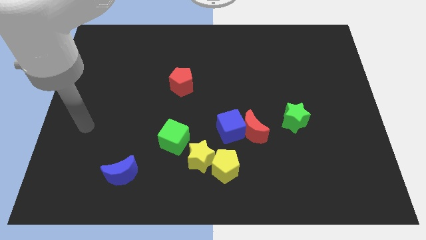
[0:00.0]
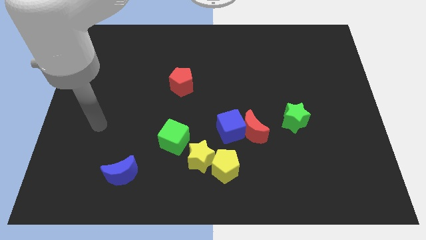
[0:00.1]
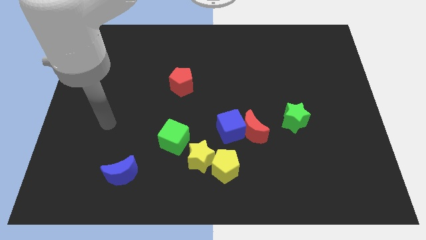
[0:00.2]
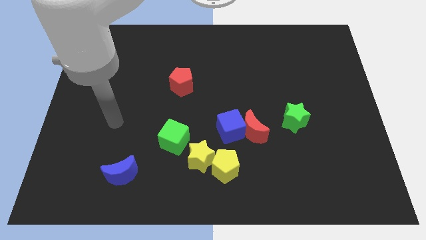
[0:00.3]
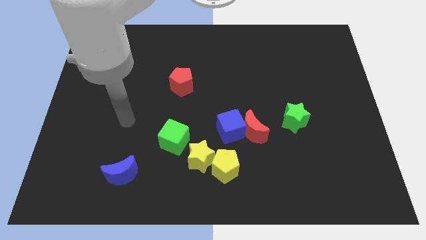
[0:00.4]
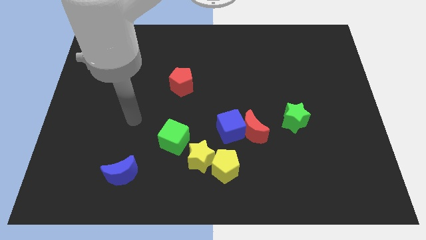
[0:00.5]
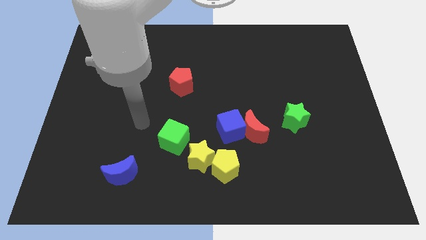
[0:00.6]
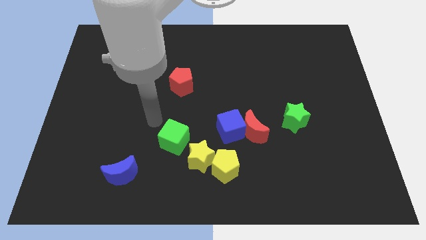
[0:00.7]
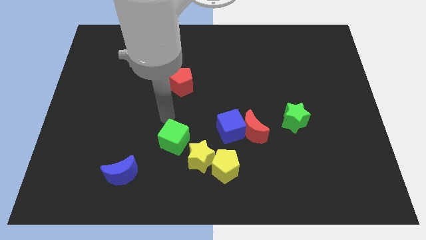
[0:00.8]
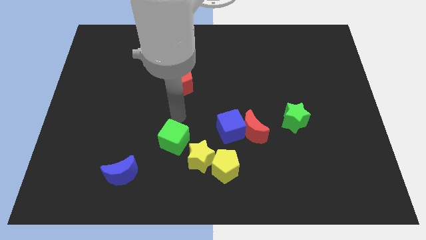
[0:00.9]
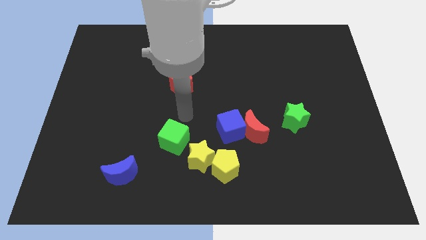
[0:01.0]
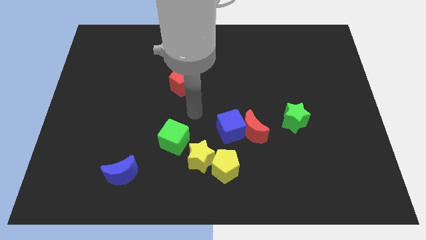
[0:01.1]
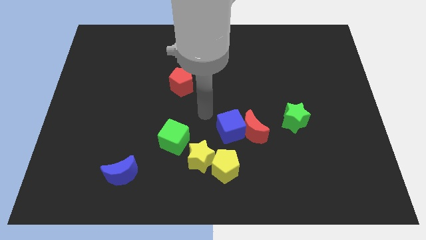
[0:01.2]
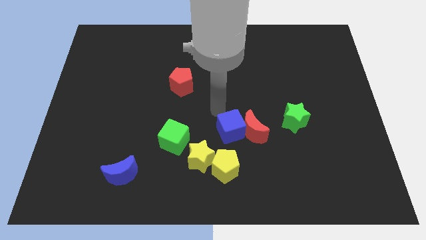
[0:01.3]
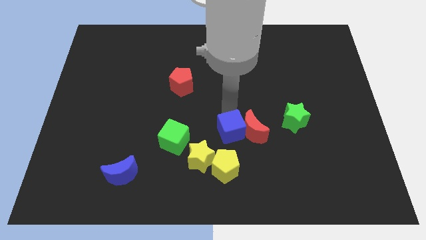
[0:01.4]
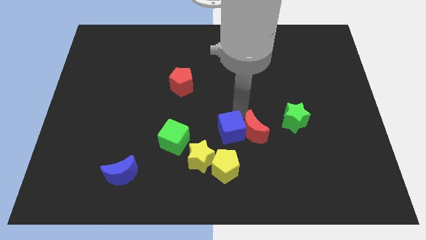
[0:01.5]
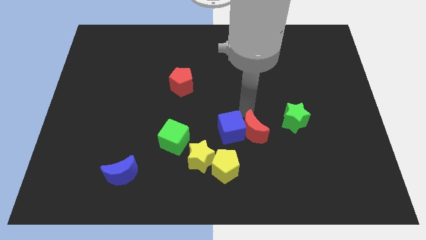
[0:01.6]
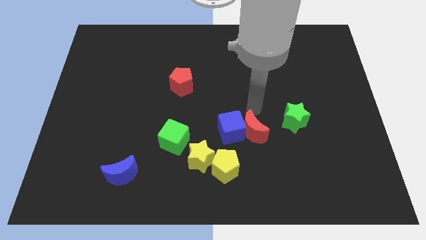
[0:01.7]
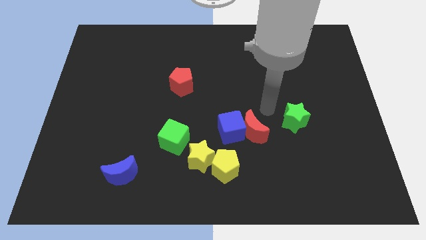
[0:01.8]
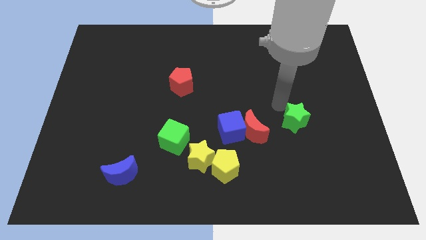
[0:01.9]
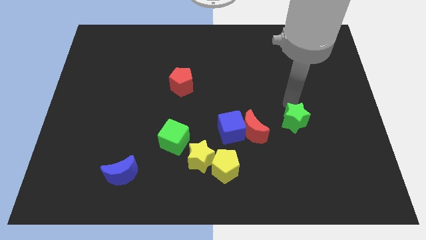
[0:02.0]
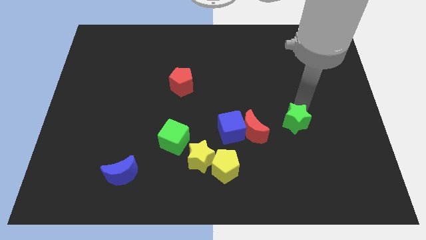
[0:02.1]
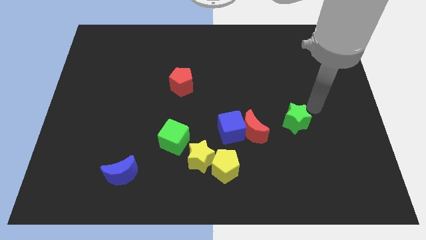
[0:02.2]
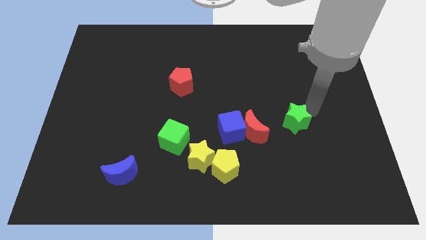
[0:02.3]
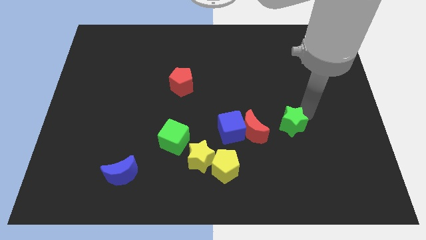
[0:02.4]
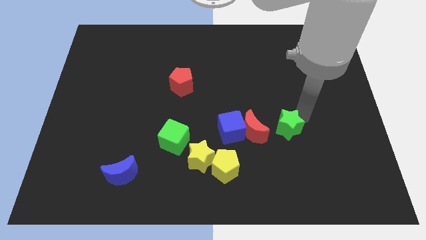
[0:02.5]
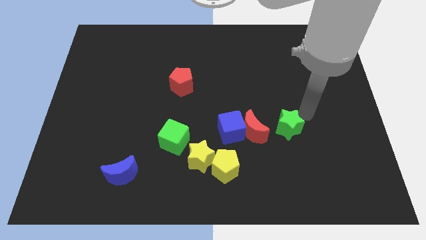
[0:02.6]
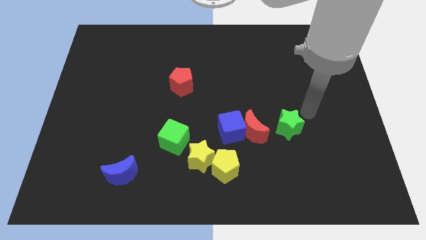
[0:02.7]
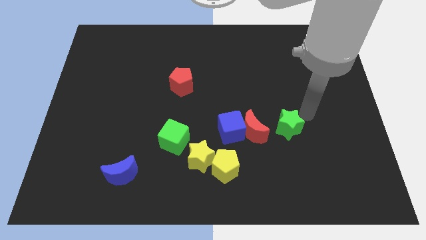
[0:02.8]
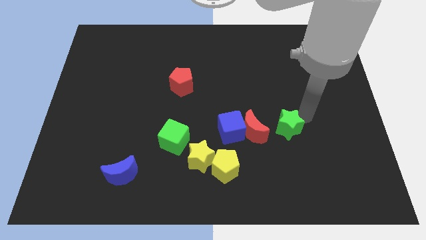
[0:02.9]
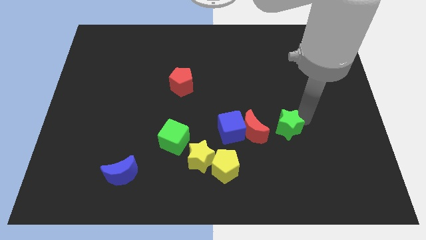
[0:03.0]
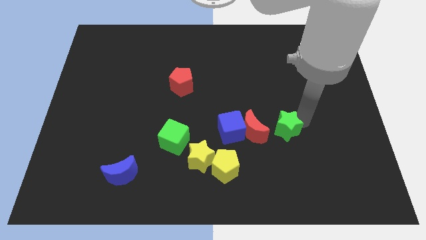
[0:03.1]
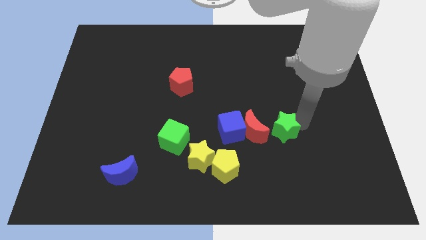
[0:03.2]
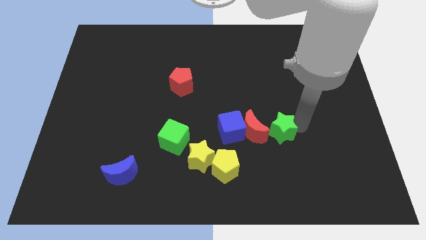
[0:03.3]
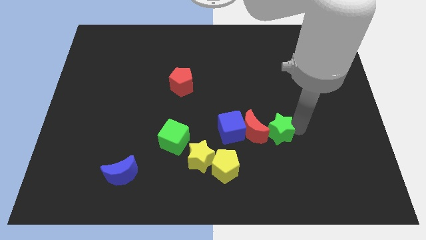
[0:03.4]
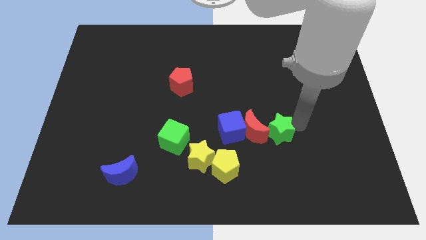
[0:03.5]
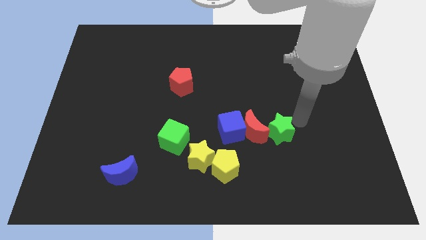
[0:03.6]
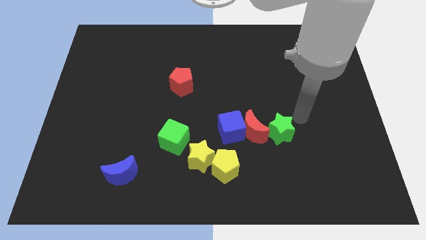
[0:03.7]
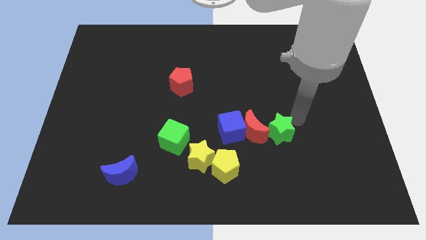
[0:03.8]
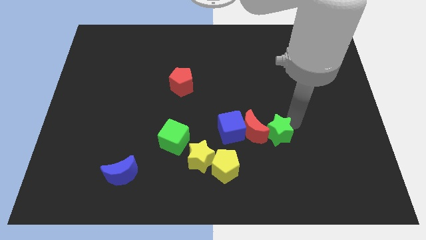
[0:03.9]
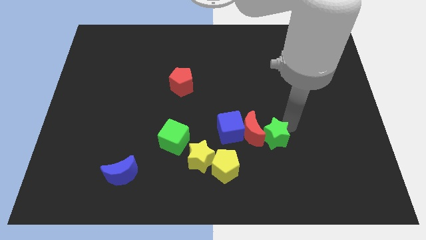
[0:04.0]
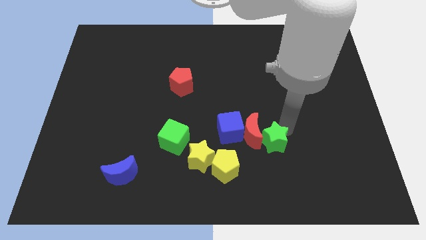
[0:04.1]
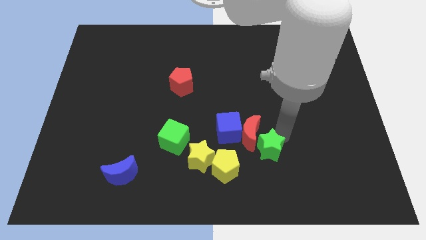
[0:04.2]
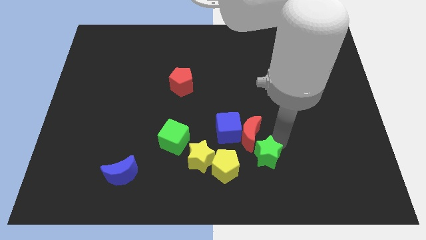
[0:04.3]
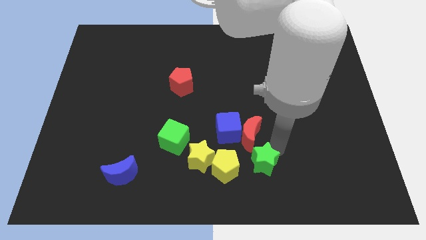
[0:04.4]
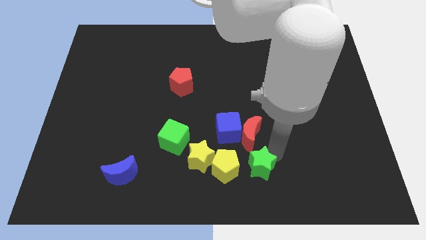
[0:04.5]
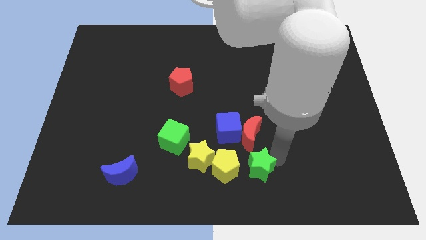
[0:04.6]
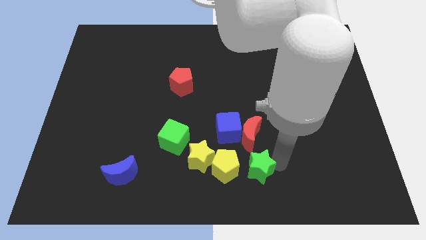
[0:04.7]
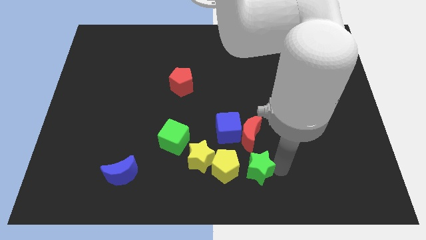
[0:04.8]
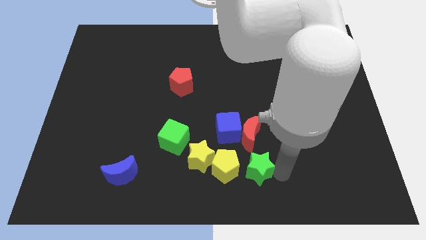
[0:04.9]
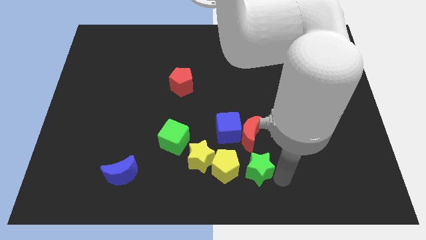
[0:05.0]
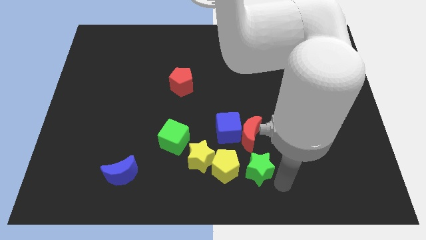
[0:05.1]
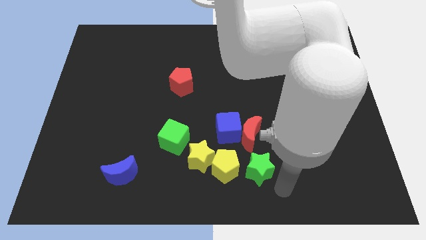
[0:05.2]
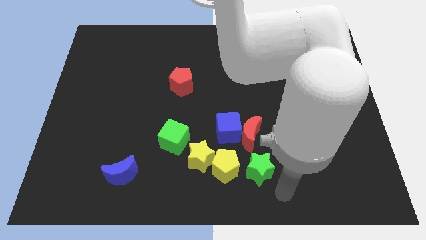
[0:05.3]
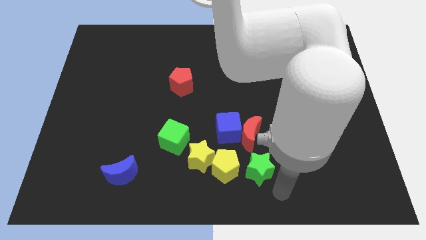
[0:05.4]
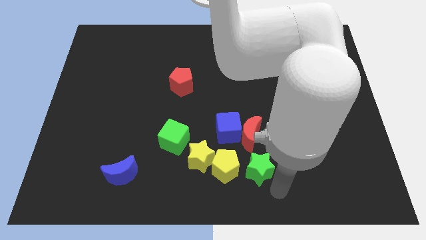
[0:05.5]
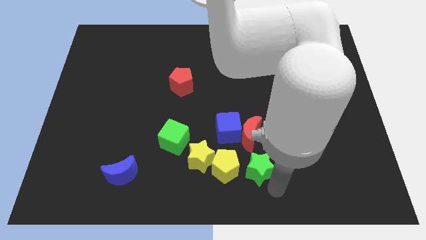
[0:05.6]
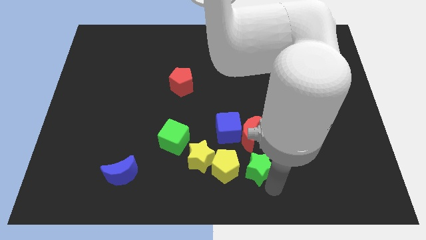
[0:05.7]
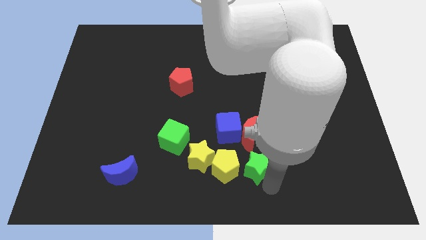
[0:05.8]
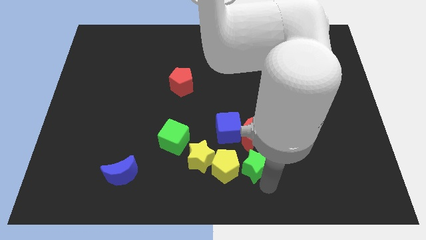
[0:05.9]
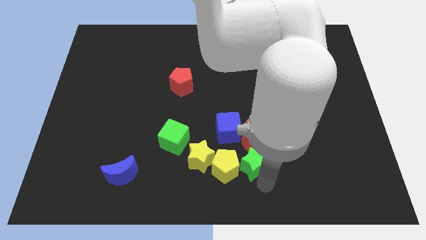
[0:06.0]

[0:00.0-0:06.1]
slide the green star to the yellow pentagon

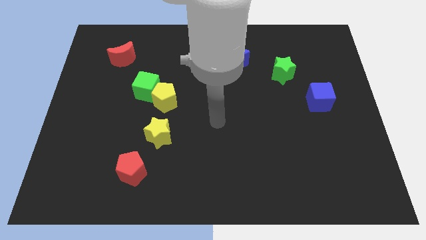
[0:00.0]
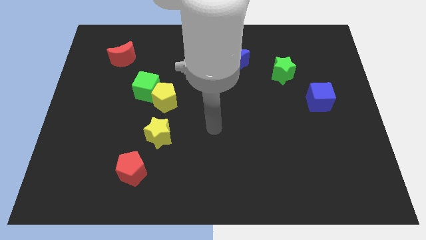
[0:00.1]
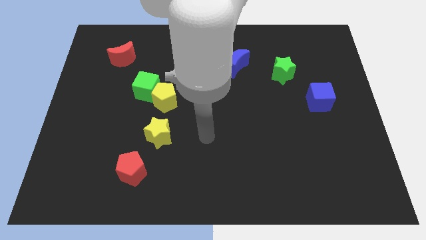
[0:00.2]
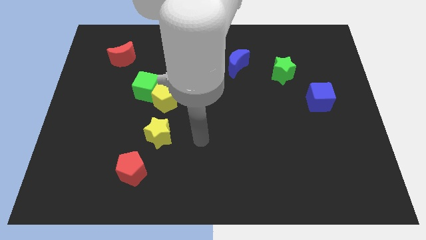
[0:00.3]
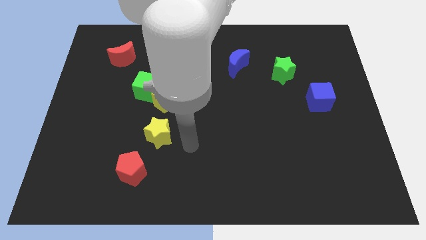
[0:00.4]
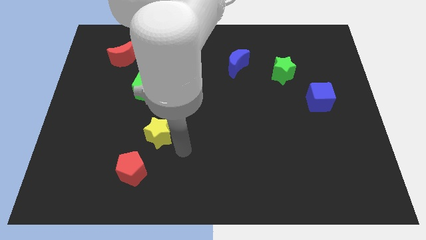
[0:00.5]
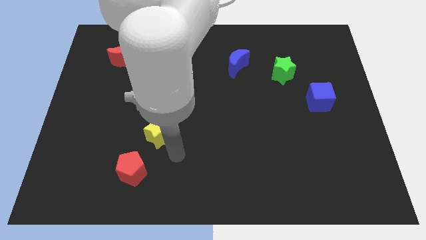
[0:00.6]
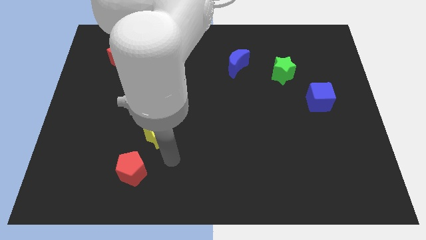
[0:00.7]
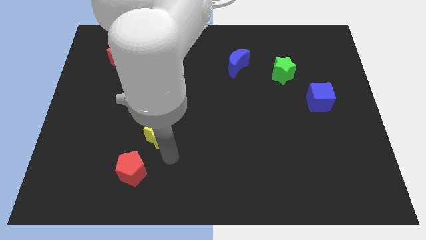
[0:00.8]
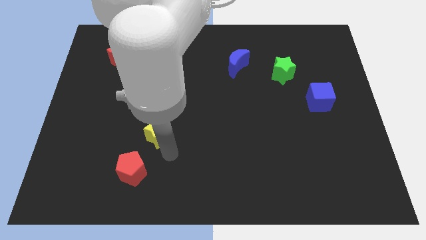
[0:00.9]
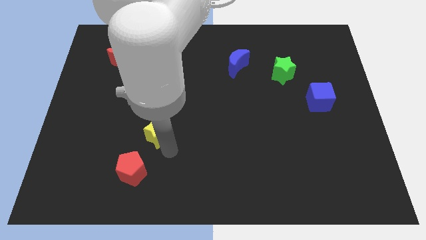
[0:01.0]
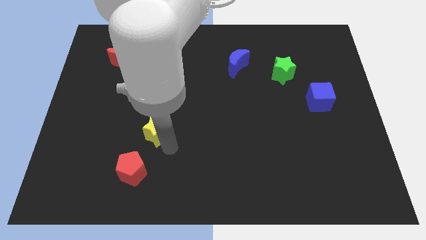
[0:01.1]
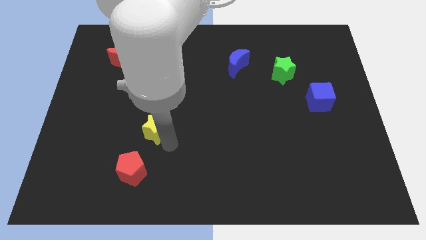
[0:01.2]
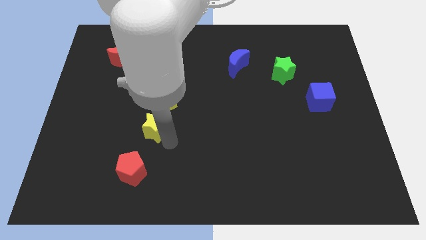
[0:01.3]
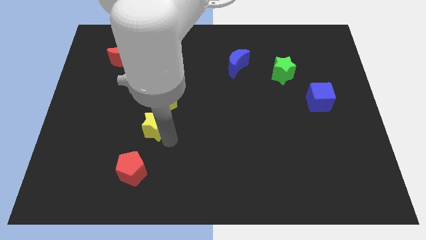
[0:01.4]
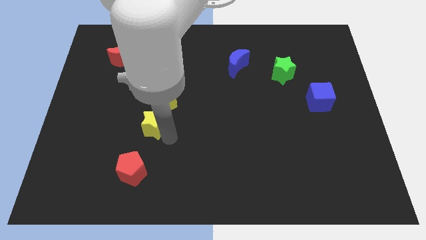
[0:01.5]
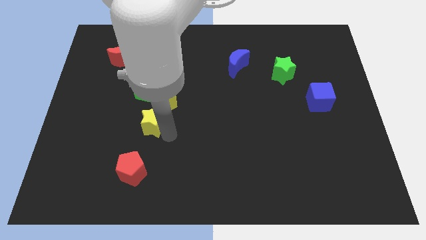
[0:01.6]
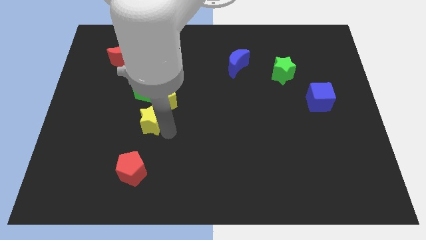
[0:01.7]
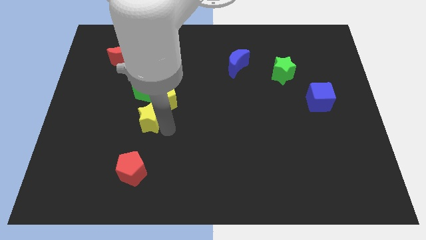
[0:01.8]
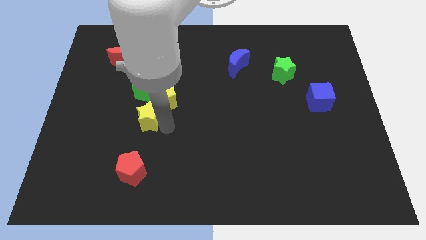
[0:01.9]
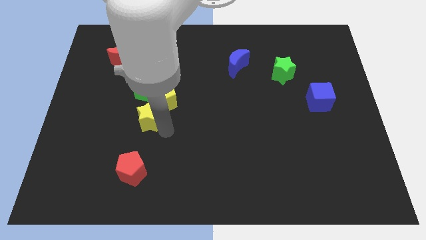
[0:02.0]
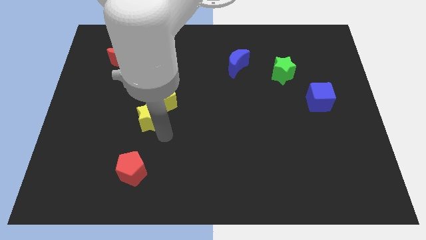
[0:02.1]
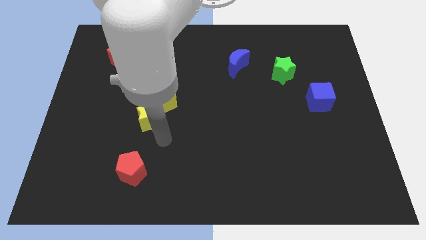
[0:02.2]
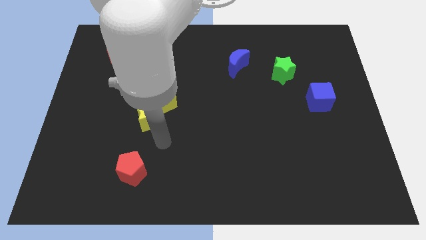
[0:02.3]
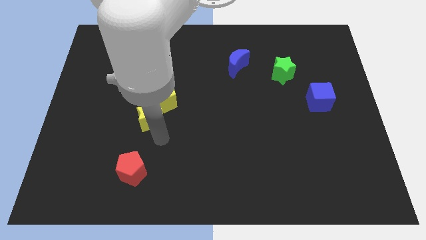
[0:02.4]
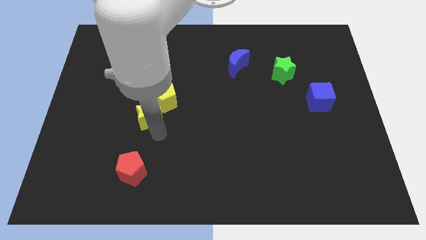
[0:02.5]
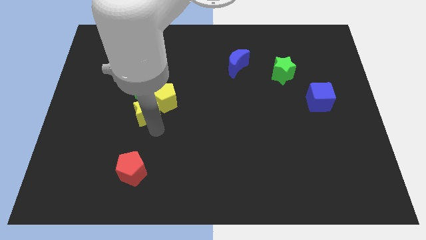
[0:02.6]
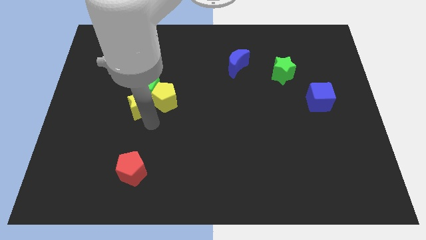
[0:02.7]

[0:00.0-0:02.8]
move the yellow star to the green cube
